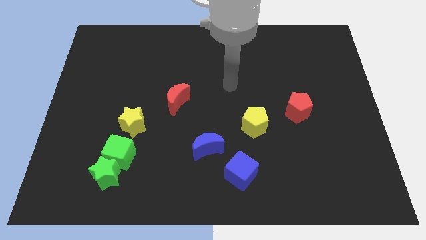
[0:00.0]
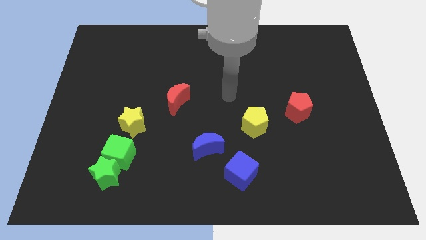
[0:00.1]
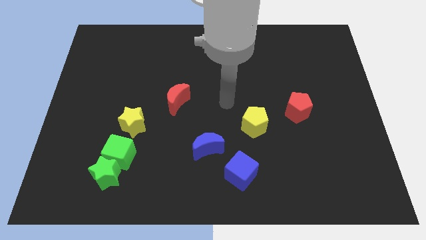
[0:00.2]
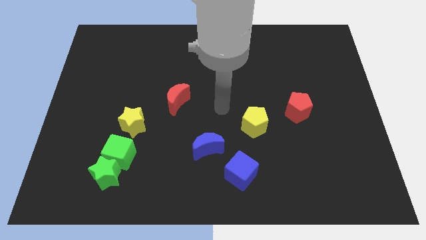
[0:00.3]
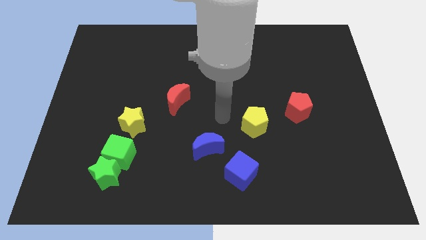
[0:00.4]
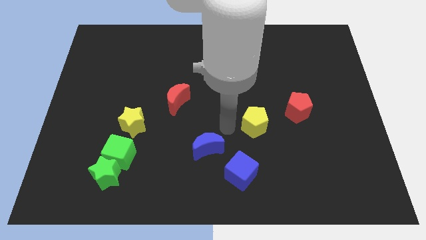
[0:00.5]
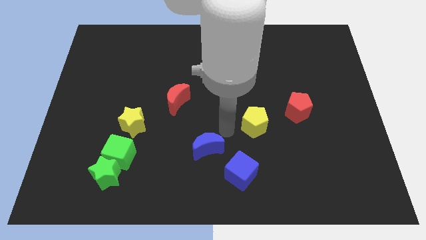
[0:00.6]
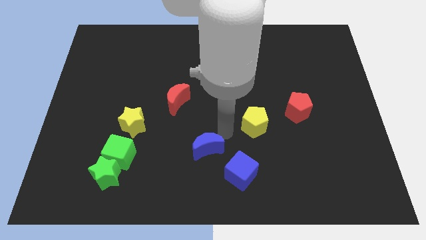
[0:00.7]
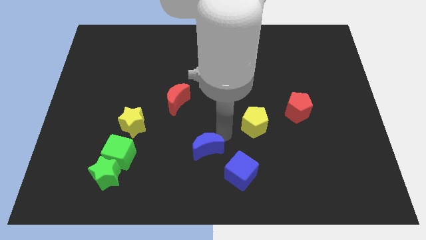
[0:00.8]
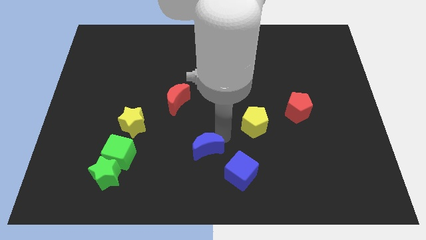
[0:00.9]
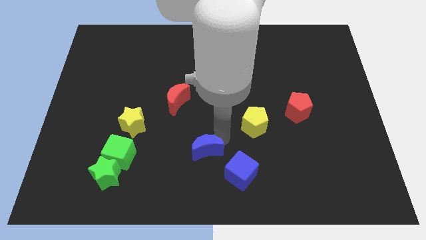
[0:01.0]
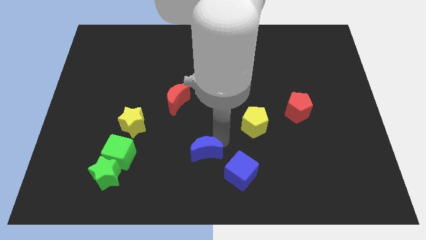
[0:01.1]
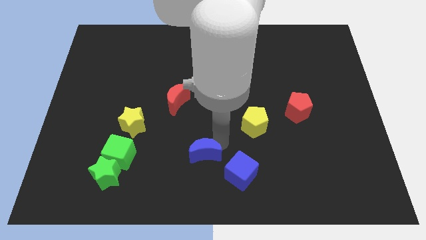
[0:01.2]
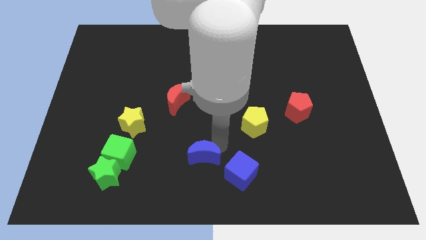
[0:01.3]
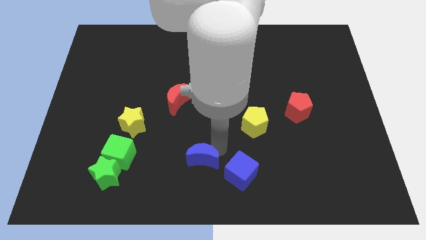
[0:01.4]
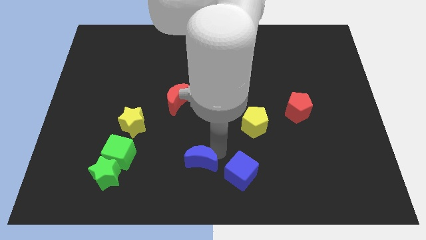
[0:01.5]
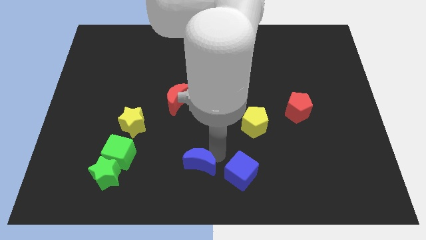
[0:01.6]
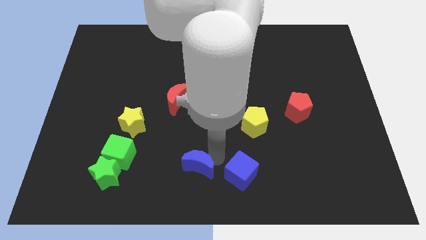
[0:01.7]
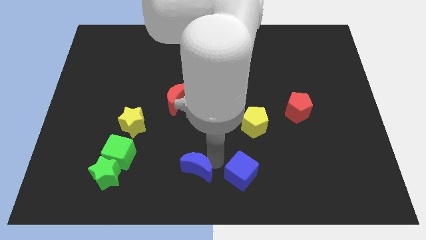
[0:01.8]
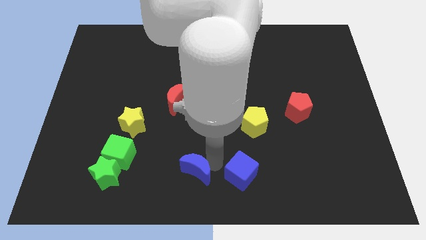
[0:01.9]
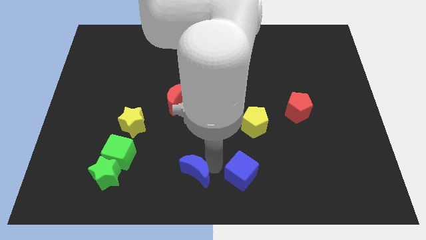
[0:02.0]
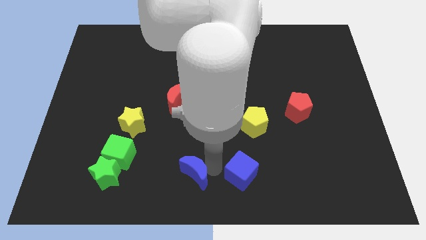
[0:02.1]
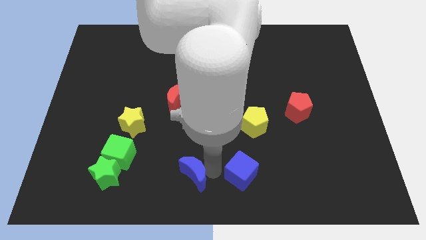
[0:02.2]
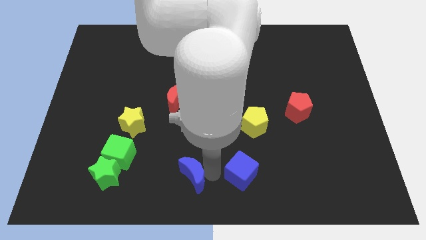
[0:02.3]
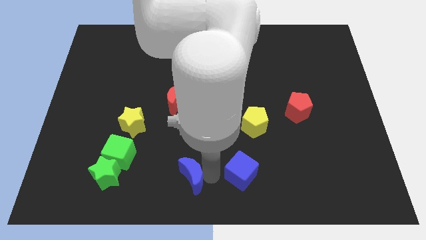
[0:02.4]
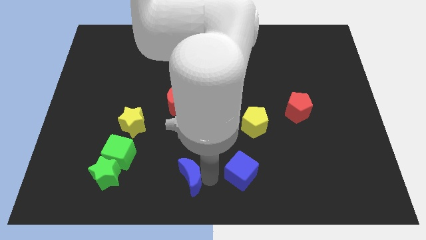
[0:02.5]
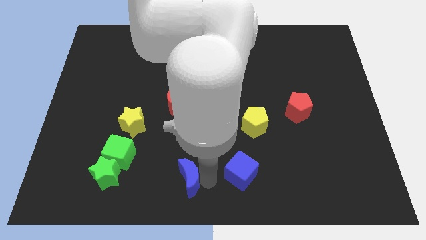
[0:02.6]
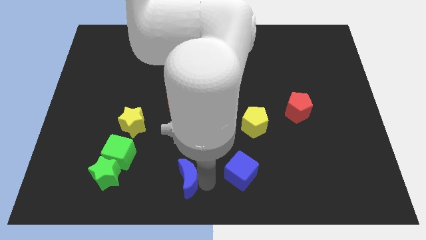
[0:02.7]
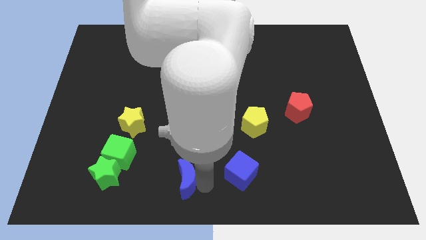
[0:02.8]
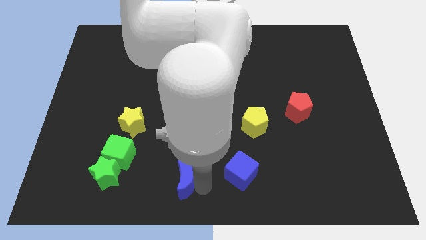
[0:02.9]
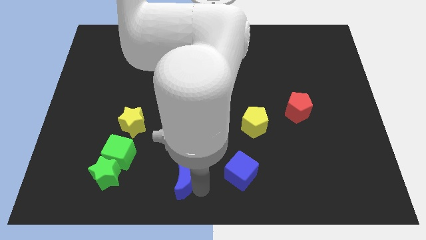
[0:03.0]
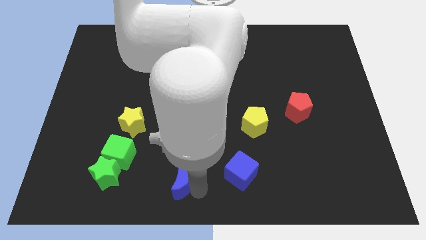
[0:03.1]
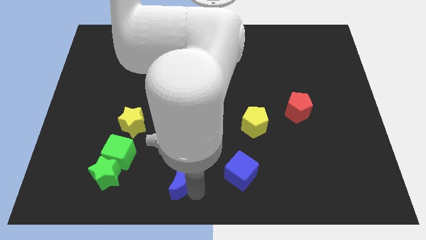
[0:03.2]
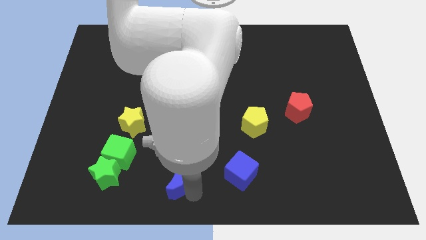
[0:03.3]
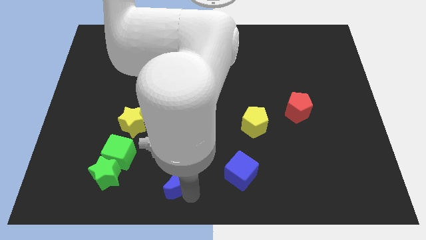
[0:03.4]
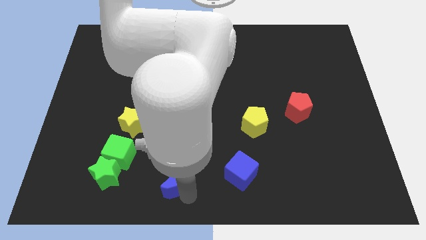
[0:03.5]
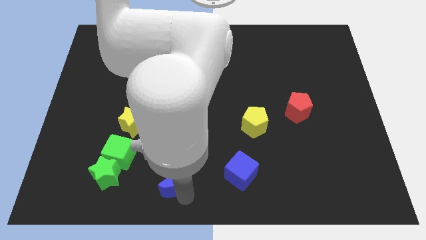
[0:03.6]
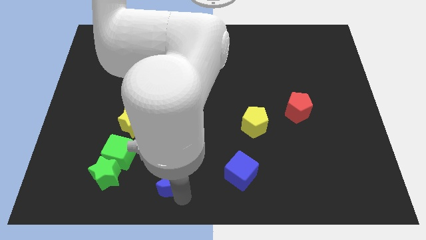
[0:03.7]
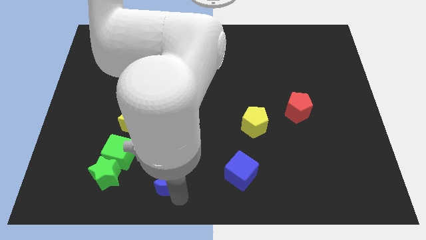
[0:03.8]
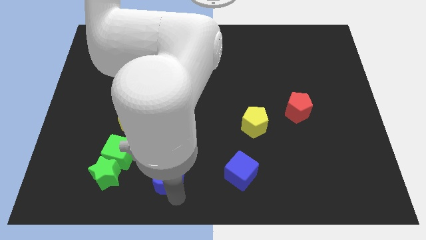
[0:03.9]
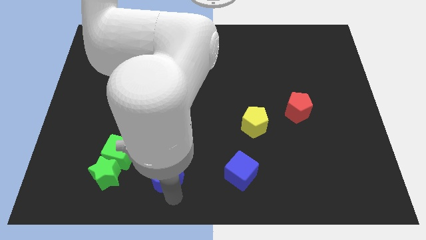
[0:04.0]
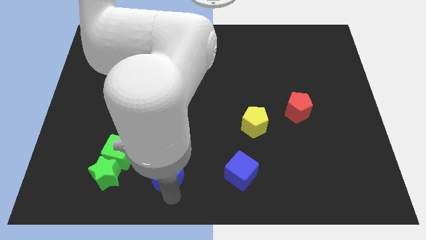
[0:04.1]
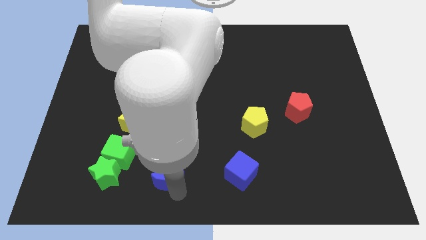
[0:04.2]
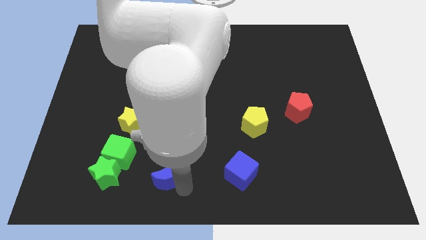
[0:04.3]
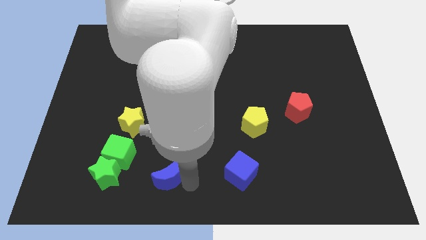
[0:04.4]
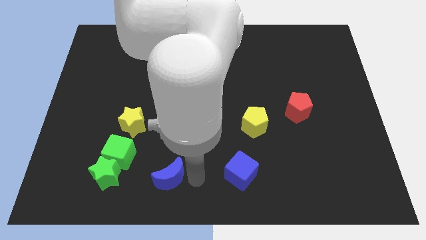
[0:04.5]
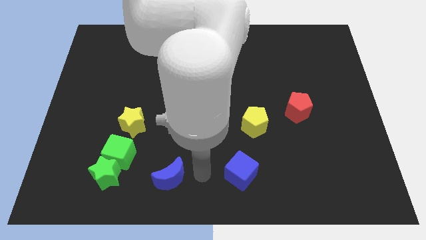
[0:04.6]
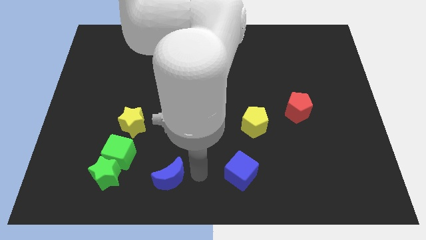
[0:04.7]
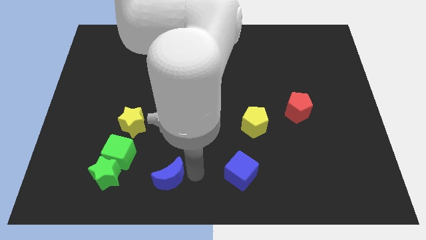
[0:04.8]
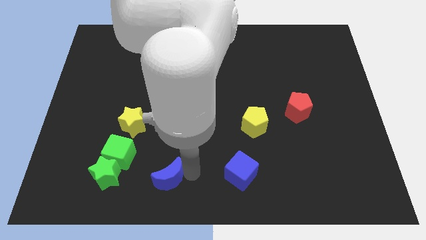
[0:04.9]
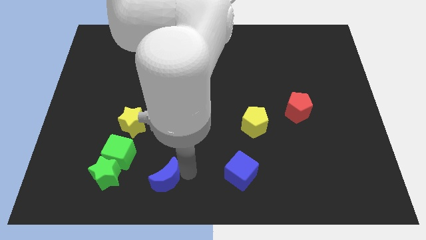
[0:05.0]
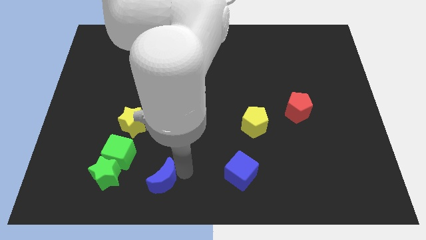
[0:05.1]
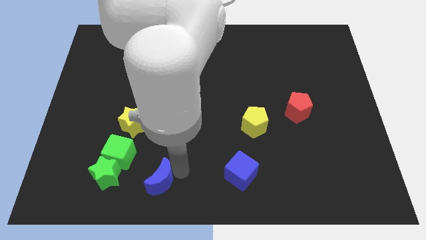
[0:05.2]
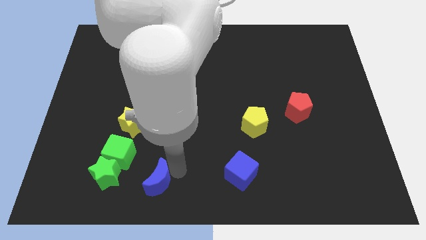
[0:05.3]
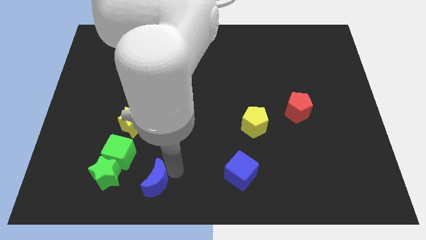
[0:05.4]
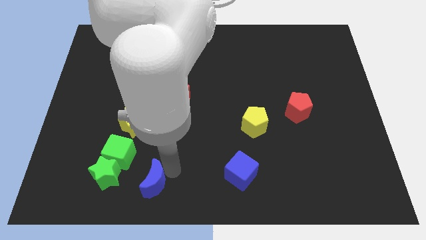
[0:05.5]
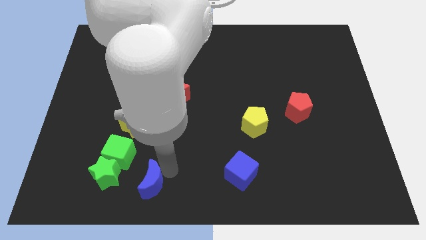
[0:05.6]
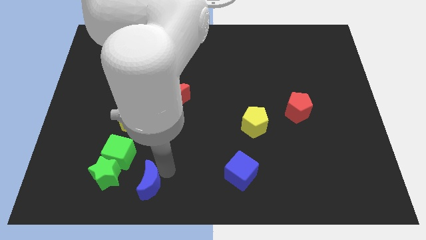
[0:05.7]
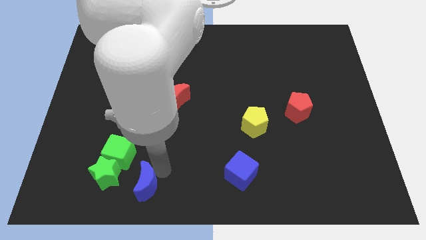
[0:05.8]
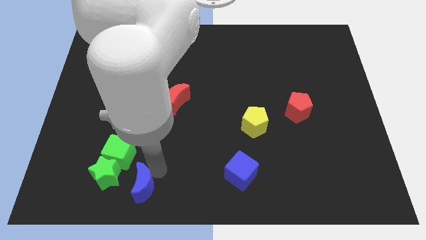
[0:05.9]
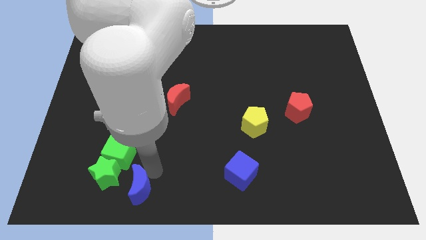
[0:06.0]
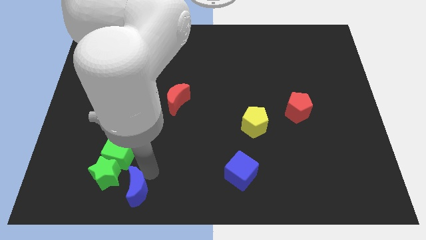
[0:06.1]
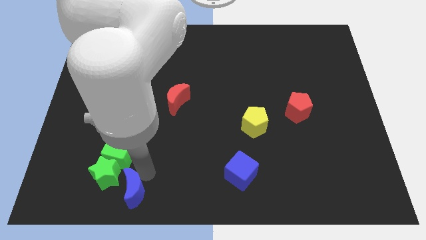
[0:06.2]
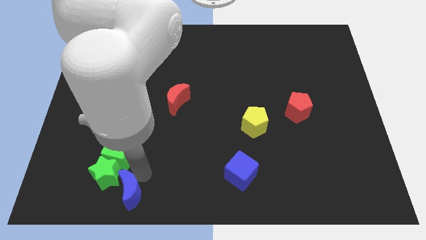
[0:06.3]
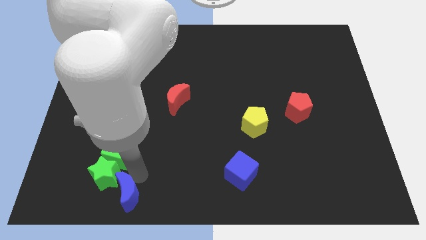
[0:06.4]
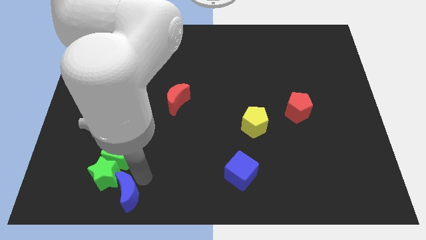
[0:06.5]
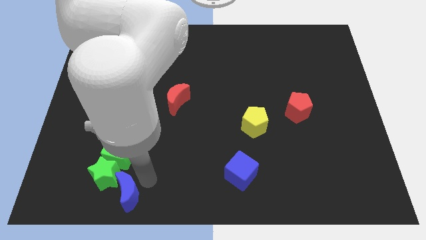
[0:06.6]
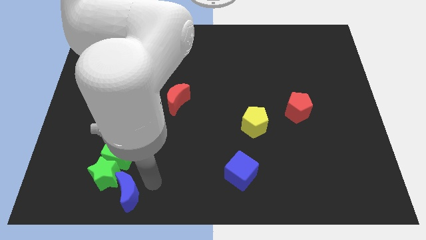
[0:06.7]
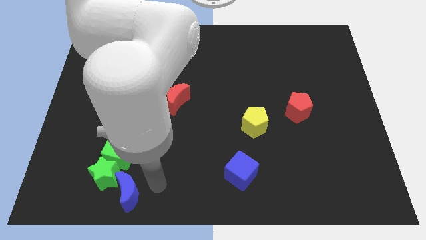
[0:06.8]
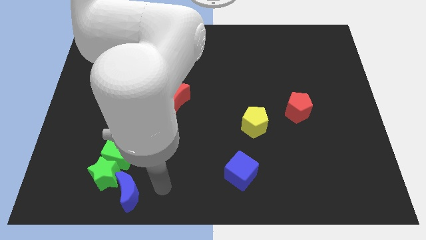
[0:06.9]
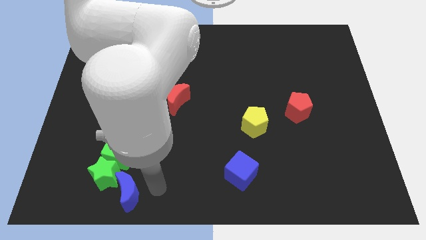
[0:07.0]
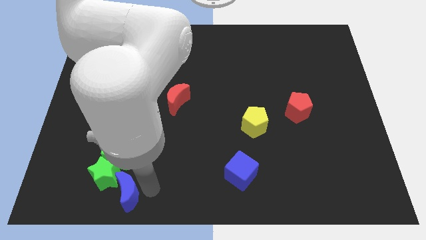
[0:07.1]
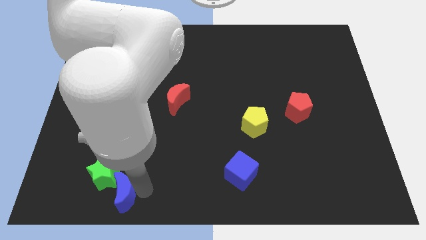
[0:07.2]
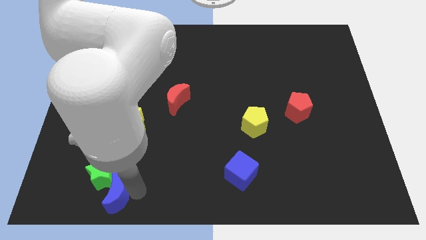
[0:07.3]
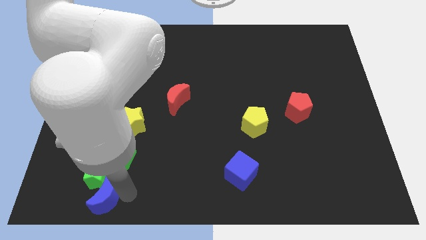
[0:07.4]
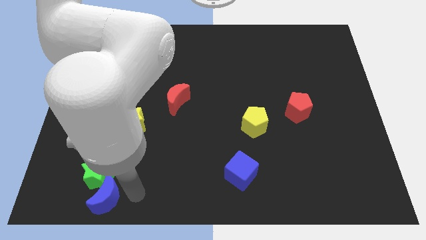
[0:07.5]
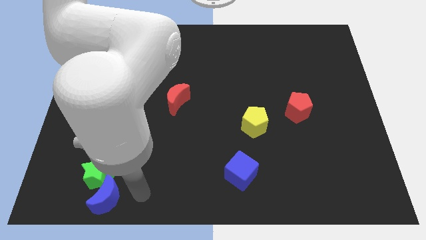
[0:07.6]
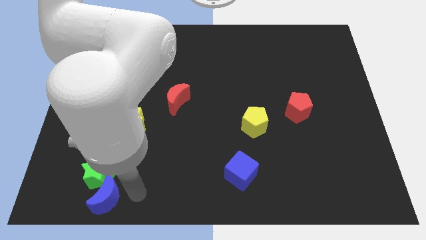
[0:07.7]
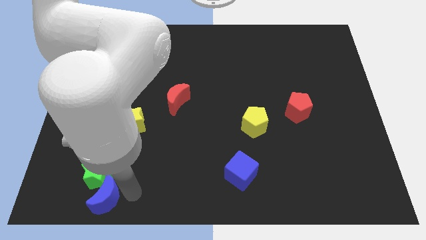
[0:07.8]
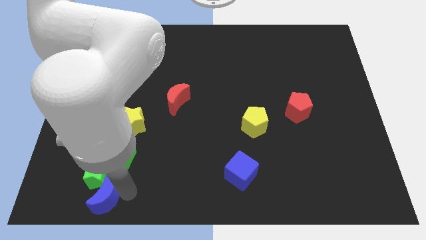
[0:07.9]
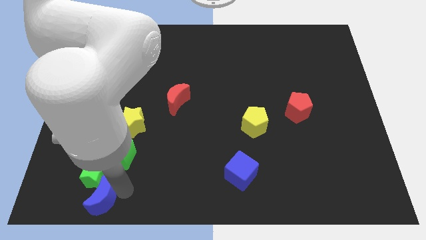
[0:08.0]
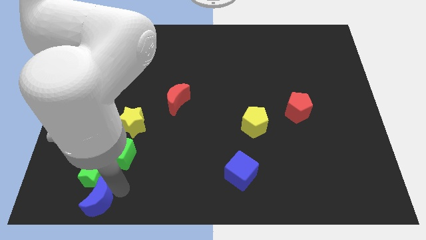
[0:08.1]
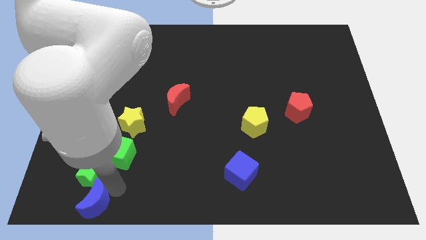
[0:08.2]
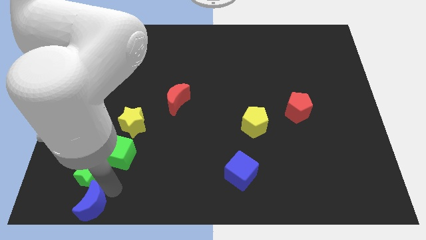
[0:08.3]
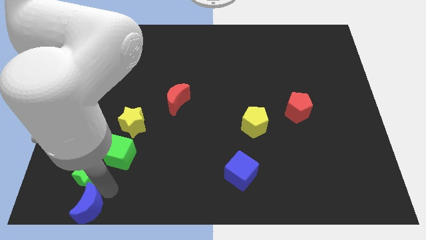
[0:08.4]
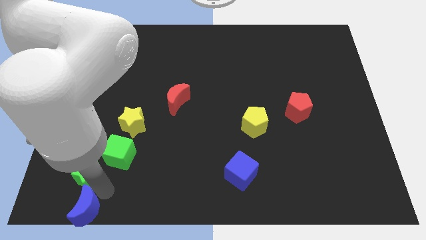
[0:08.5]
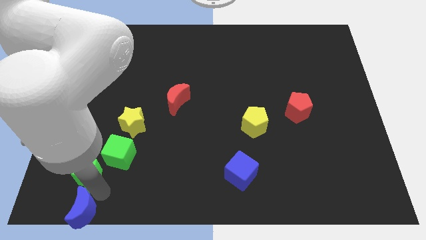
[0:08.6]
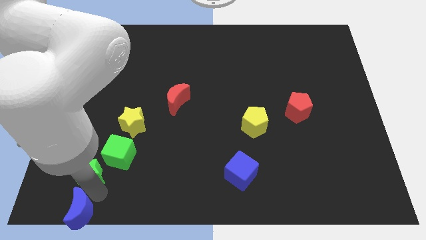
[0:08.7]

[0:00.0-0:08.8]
put the blue moon to the lower left corner
